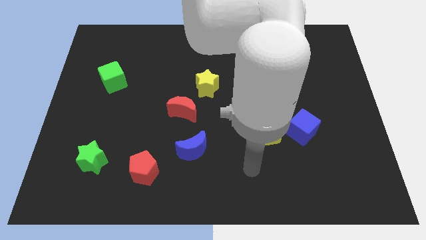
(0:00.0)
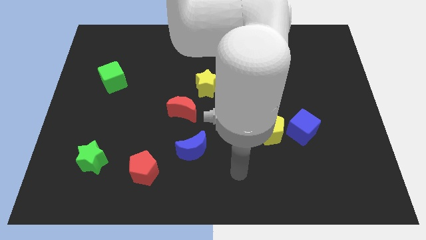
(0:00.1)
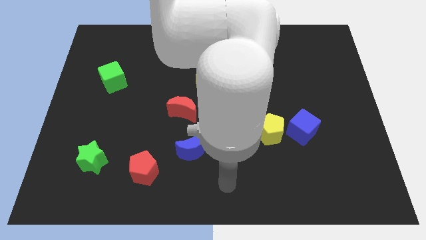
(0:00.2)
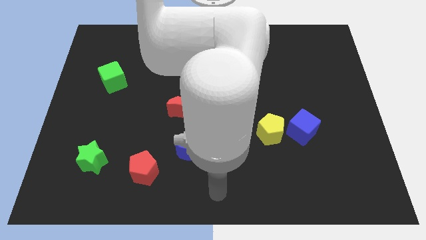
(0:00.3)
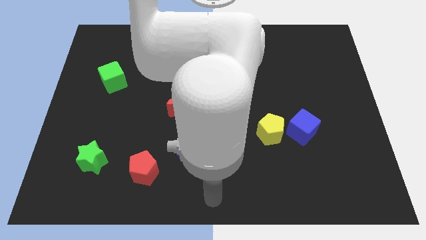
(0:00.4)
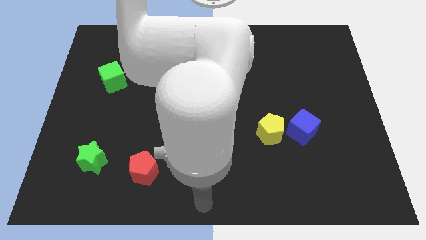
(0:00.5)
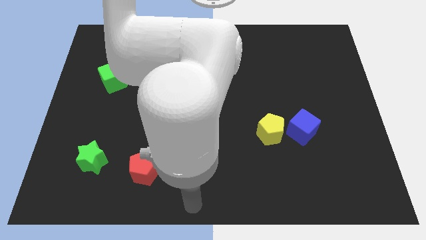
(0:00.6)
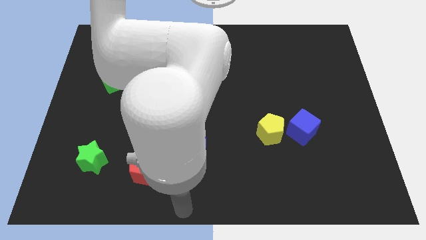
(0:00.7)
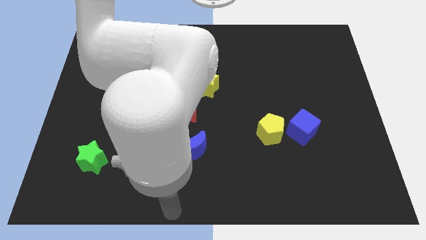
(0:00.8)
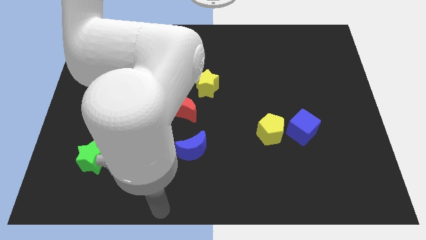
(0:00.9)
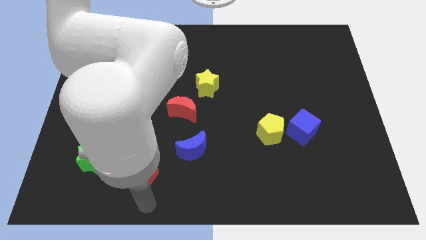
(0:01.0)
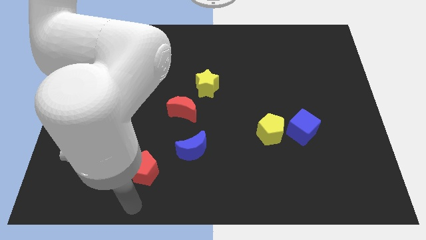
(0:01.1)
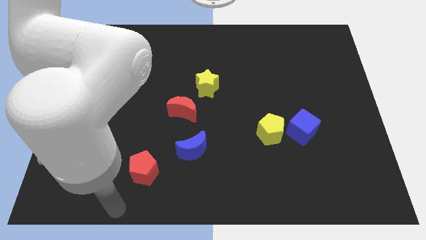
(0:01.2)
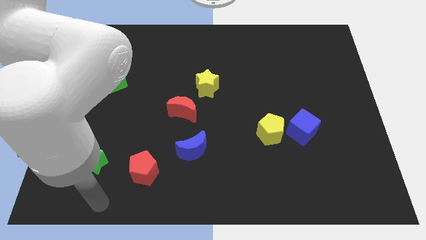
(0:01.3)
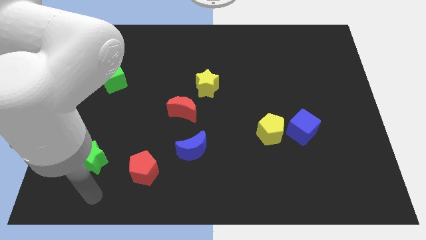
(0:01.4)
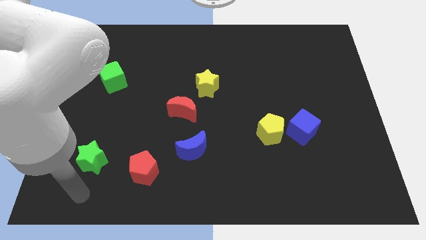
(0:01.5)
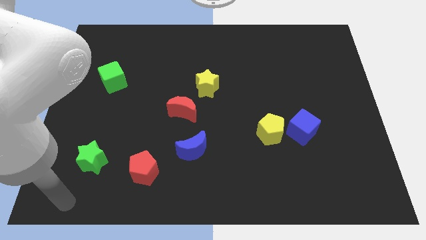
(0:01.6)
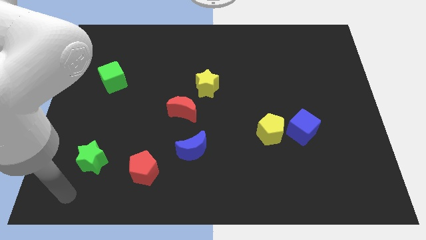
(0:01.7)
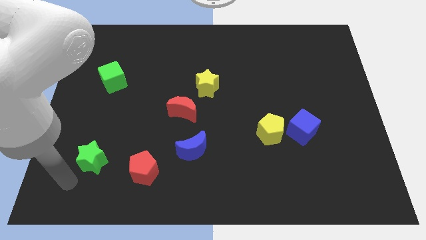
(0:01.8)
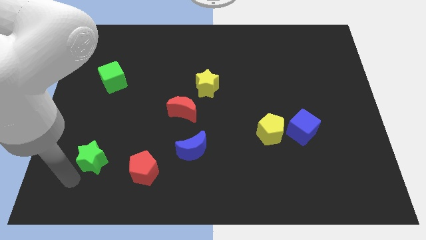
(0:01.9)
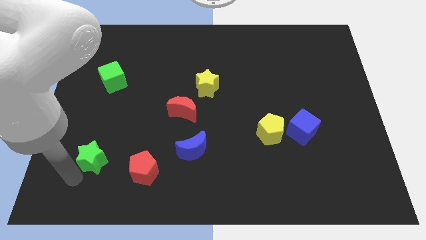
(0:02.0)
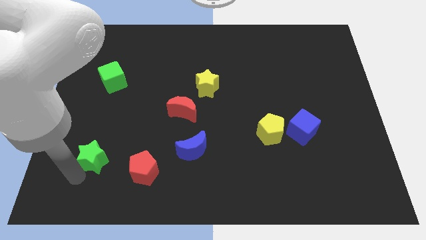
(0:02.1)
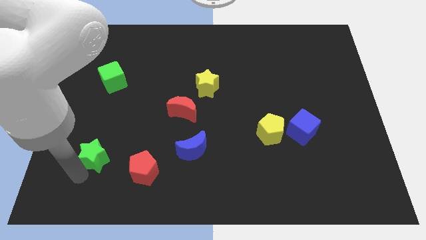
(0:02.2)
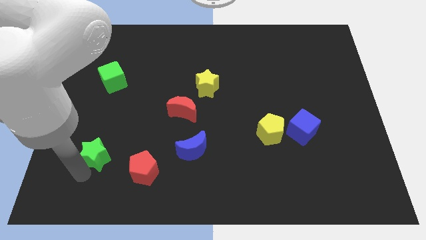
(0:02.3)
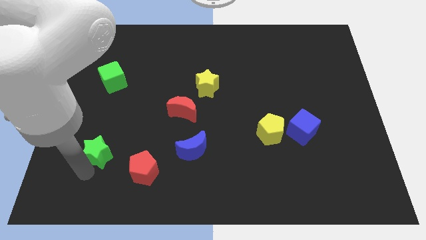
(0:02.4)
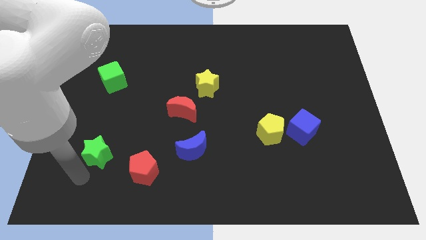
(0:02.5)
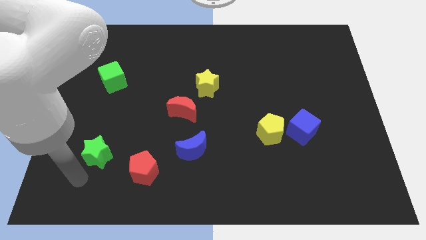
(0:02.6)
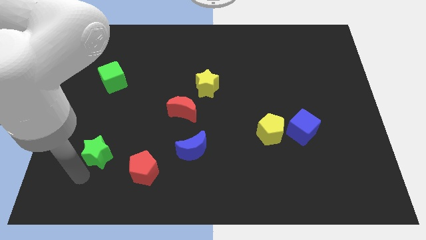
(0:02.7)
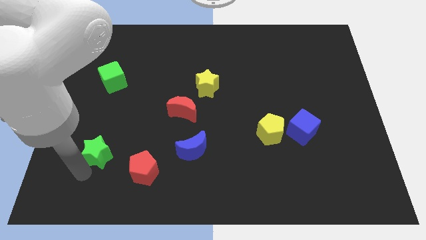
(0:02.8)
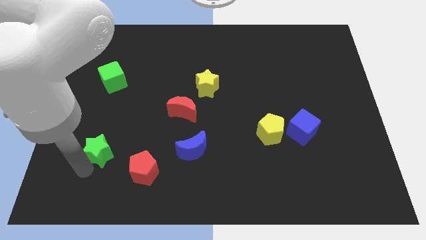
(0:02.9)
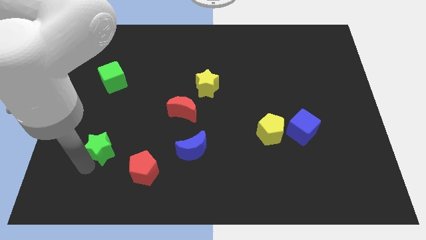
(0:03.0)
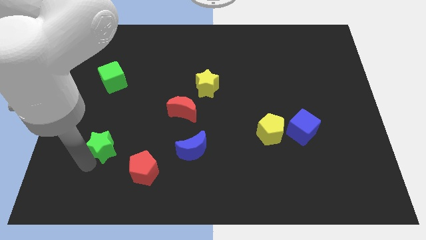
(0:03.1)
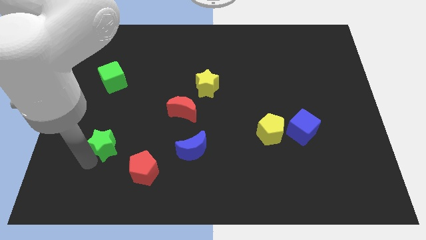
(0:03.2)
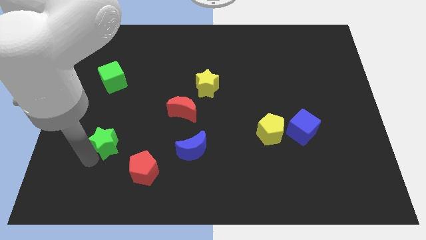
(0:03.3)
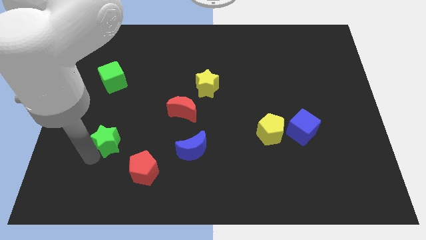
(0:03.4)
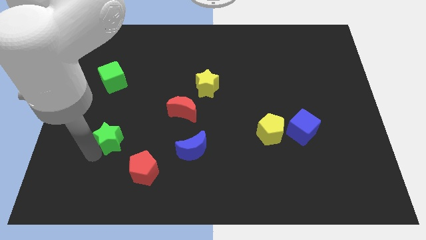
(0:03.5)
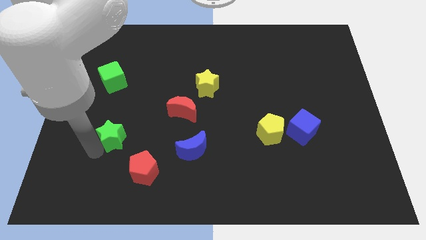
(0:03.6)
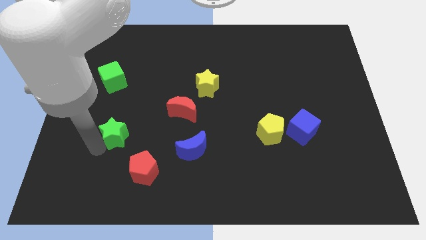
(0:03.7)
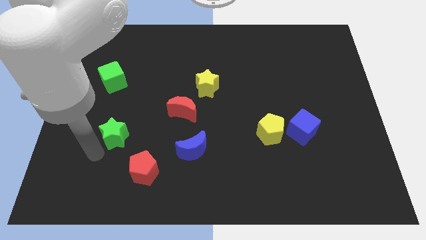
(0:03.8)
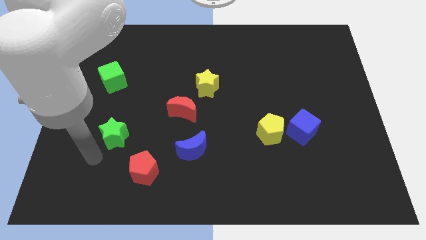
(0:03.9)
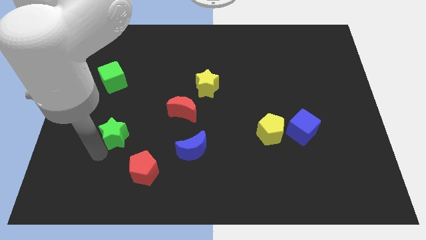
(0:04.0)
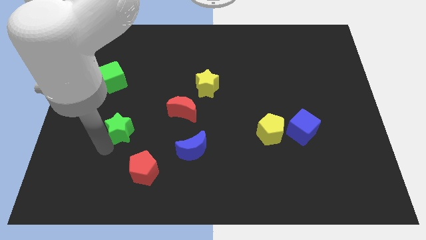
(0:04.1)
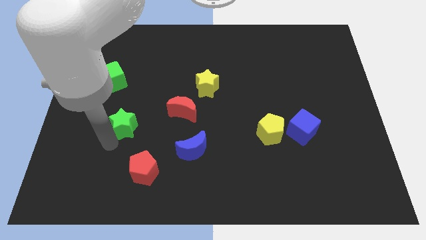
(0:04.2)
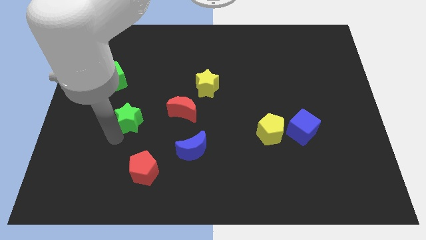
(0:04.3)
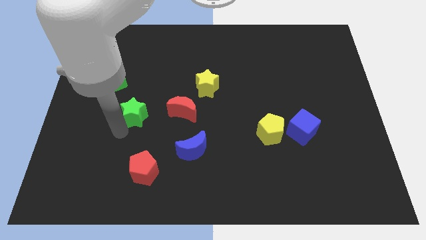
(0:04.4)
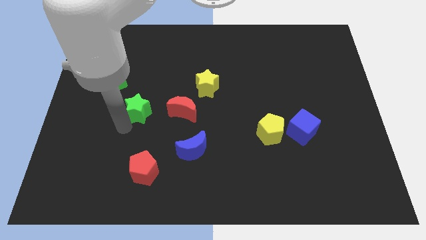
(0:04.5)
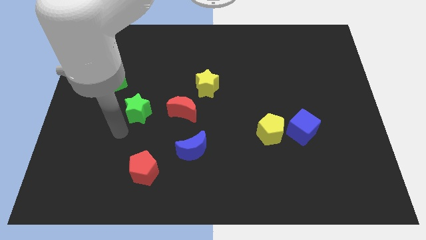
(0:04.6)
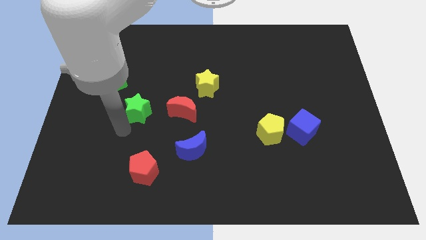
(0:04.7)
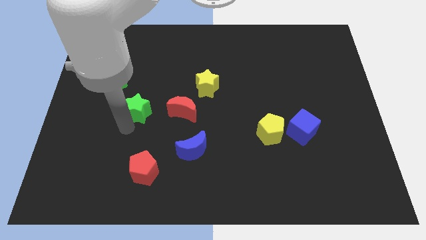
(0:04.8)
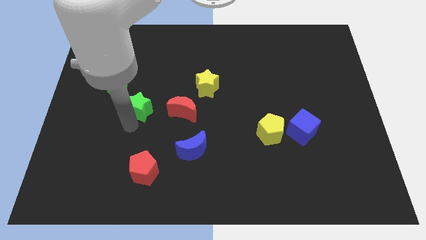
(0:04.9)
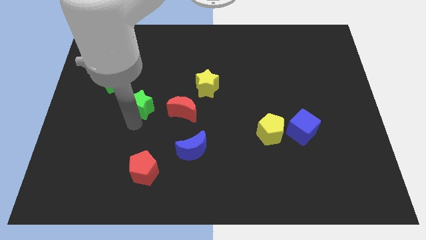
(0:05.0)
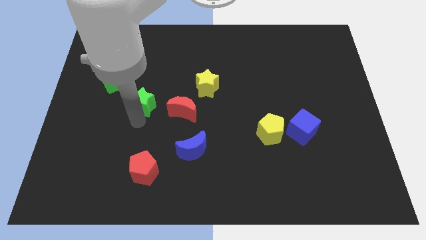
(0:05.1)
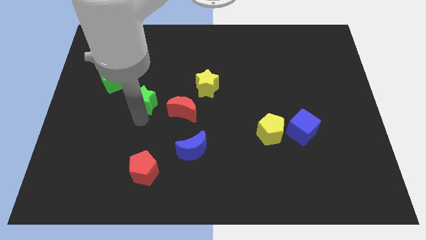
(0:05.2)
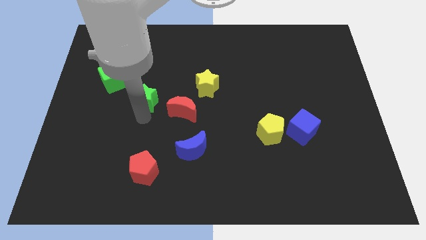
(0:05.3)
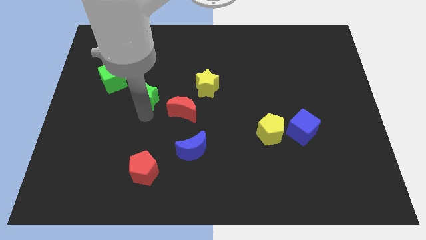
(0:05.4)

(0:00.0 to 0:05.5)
put the green star left of the yellow star

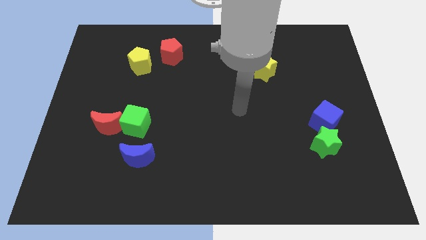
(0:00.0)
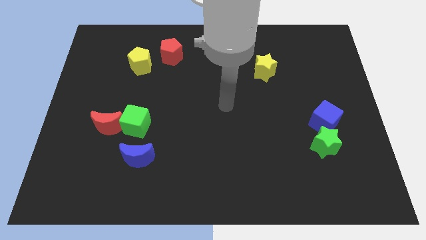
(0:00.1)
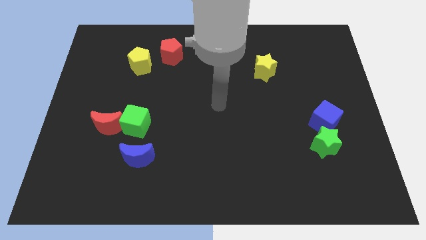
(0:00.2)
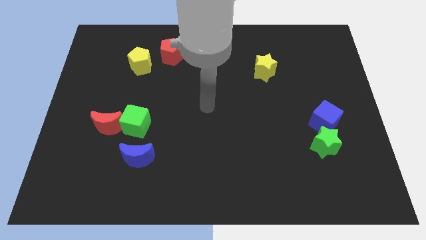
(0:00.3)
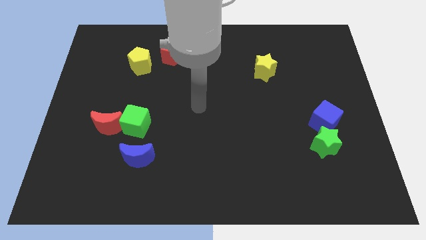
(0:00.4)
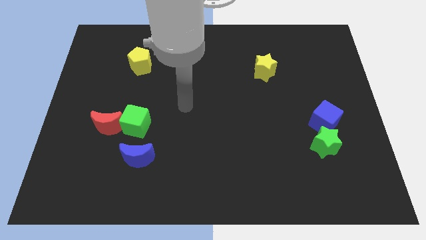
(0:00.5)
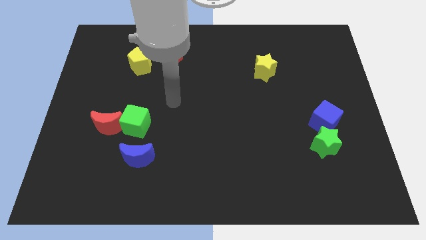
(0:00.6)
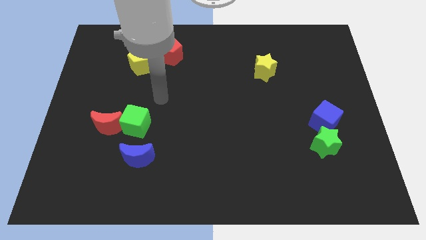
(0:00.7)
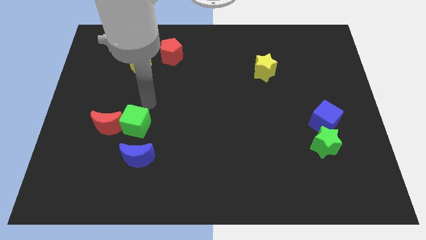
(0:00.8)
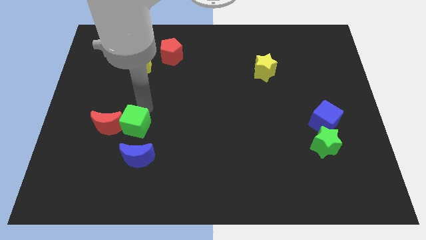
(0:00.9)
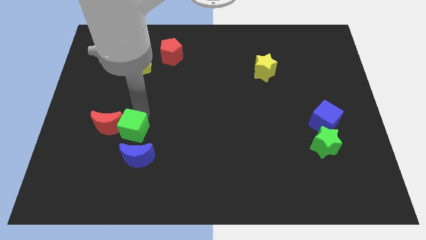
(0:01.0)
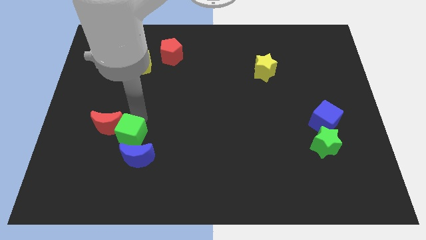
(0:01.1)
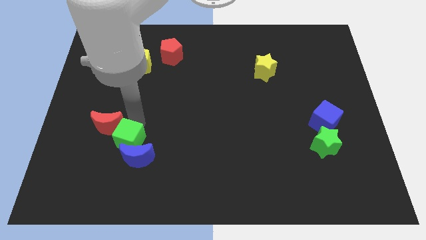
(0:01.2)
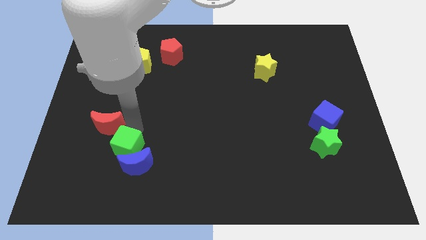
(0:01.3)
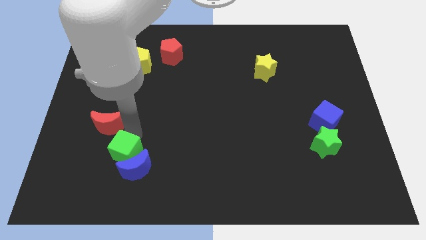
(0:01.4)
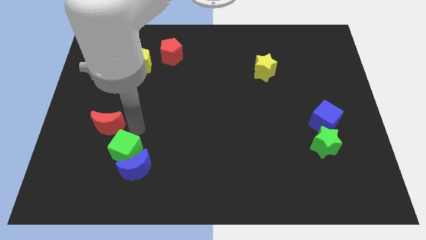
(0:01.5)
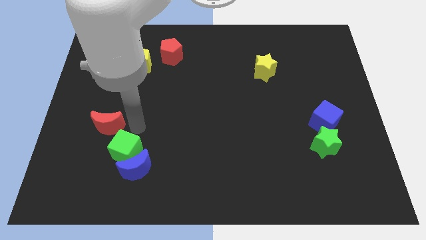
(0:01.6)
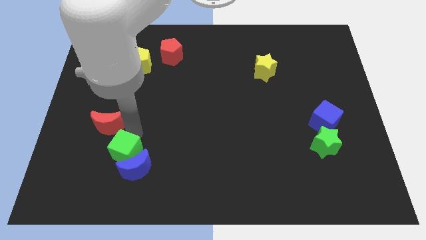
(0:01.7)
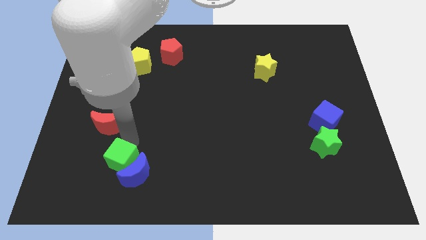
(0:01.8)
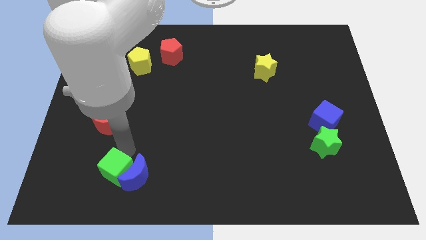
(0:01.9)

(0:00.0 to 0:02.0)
slide the green cube to the bottom left of the blue moon

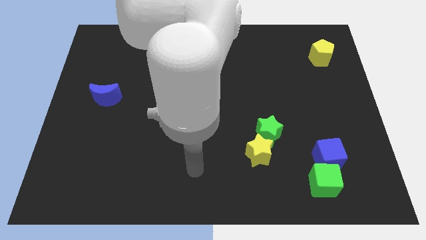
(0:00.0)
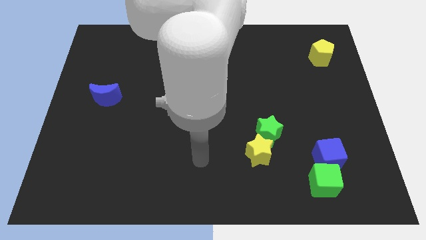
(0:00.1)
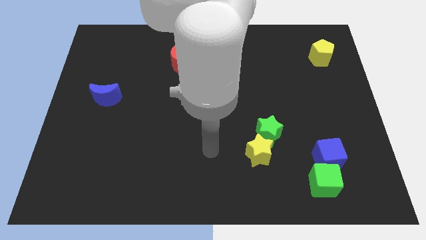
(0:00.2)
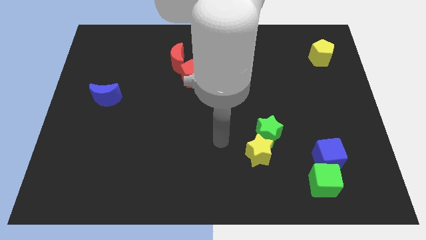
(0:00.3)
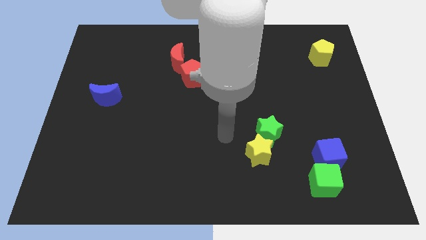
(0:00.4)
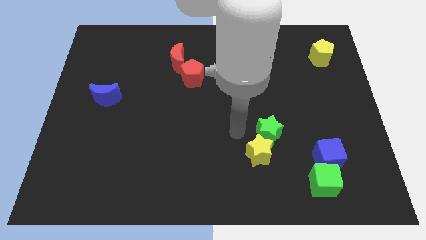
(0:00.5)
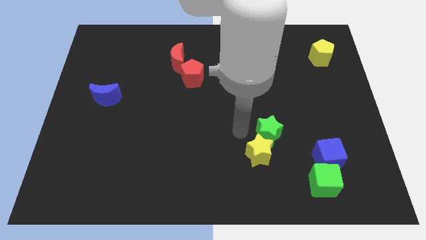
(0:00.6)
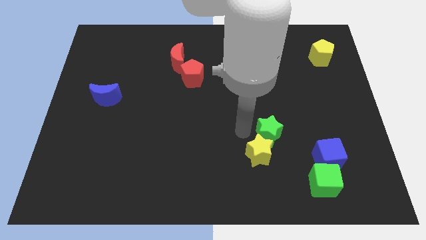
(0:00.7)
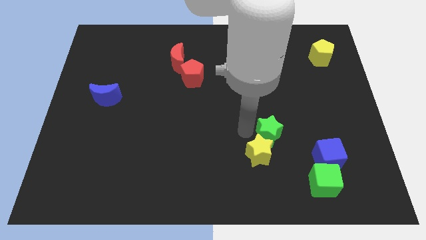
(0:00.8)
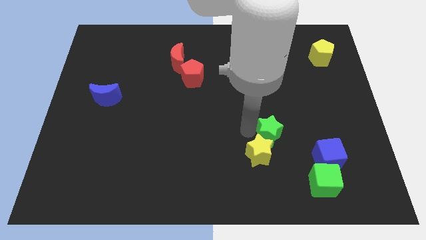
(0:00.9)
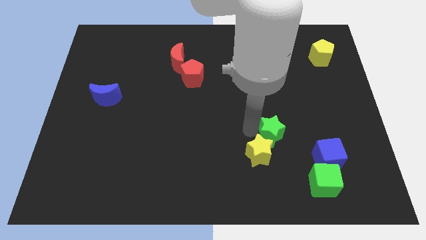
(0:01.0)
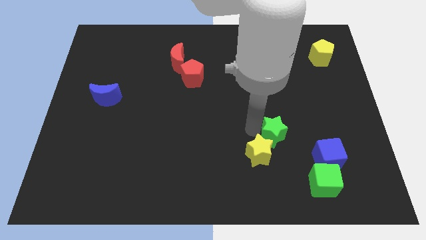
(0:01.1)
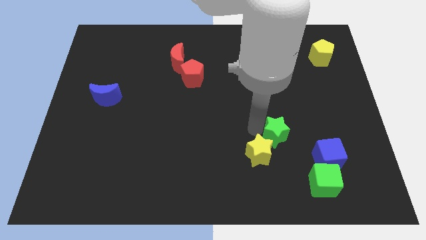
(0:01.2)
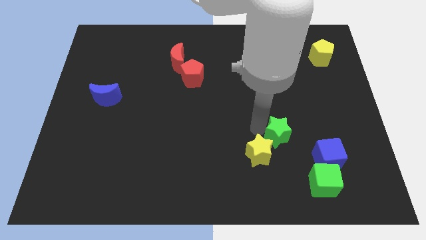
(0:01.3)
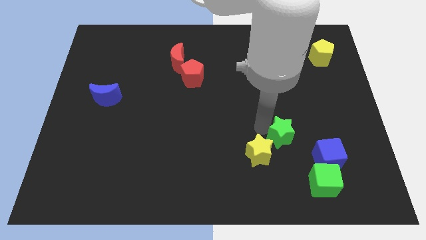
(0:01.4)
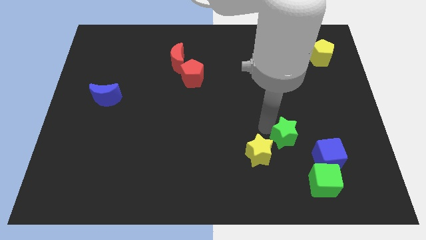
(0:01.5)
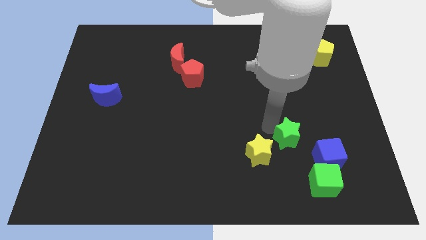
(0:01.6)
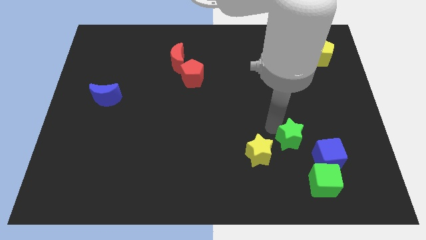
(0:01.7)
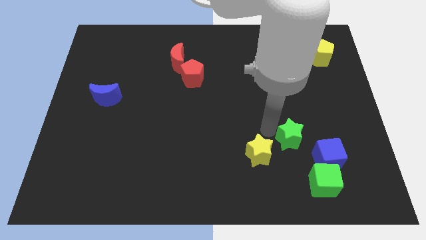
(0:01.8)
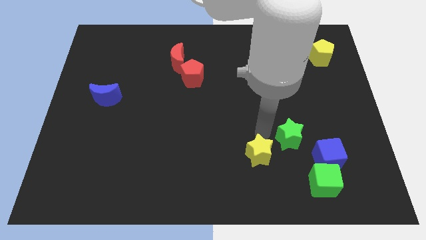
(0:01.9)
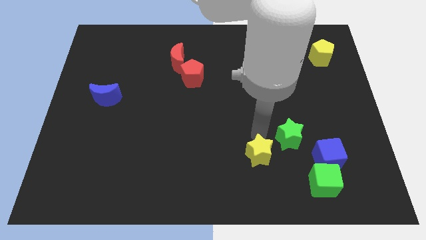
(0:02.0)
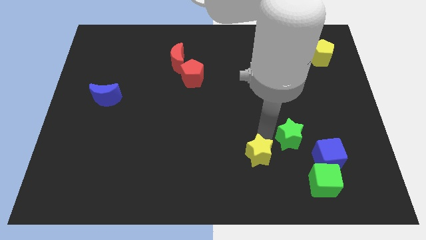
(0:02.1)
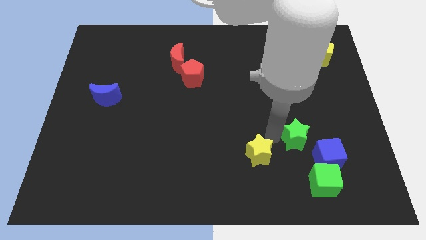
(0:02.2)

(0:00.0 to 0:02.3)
push the green star to the top of the green cube
